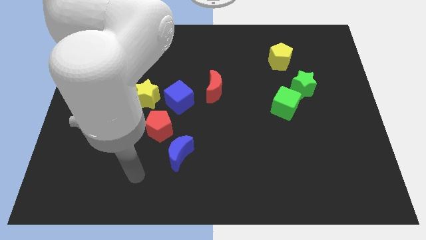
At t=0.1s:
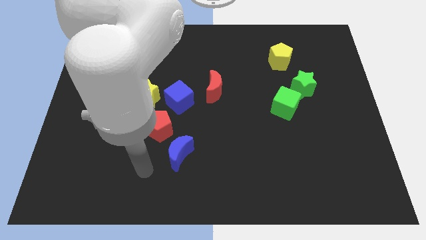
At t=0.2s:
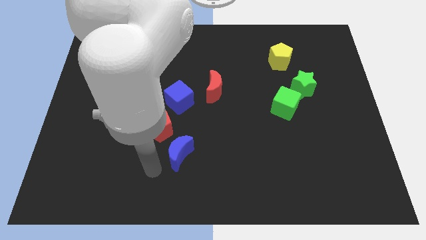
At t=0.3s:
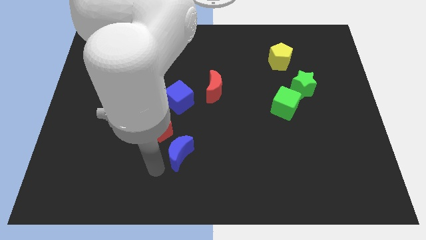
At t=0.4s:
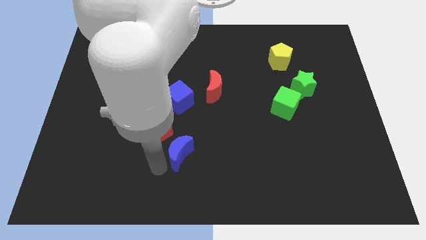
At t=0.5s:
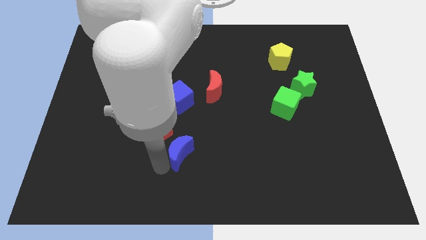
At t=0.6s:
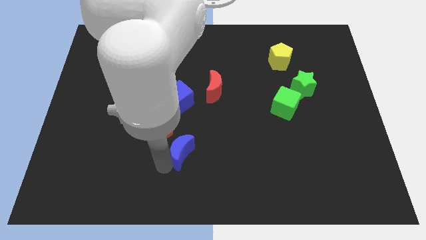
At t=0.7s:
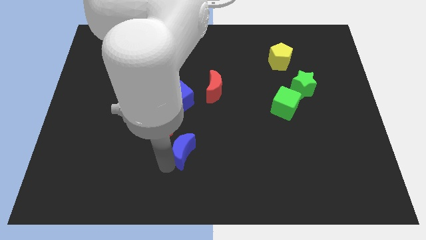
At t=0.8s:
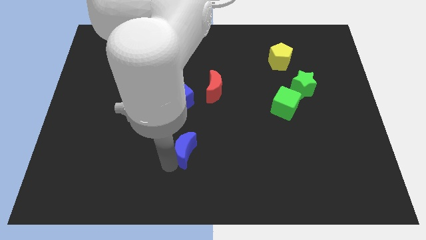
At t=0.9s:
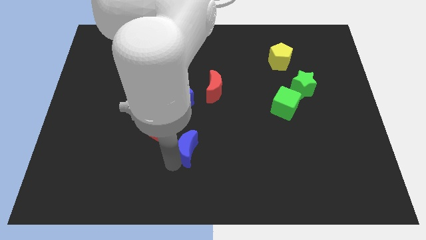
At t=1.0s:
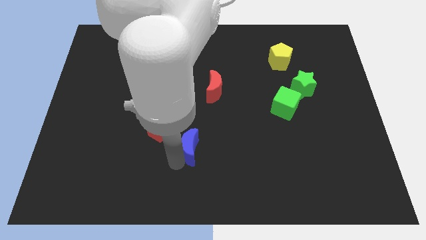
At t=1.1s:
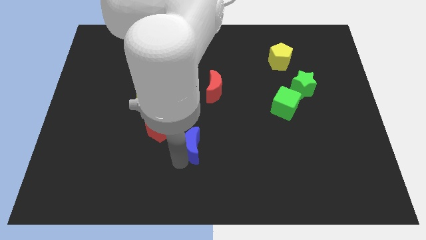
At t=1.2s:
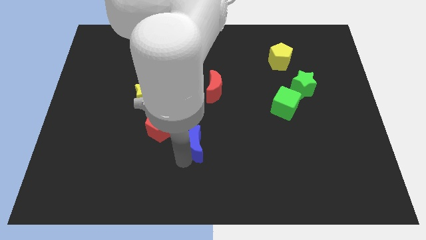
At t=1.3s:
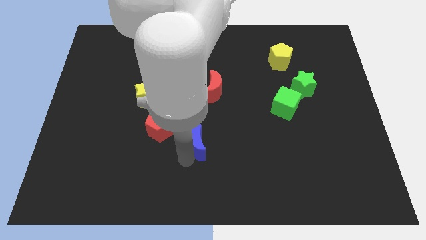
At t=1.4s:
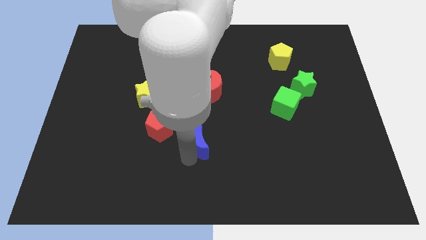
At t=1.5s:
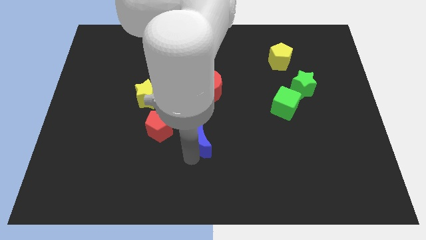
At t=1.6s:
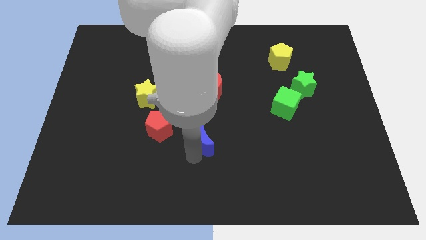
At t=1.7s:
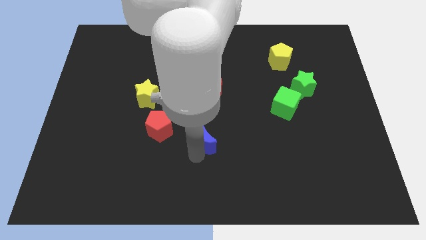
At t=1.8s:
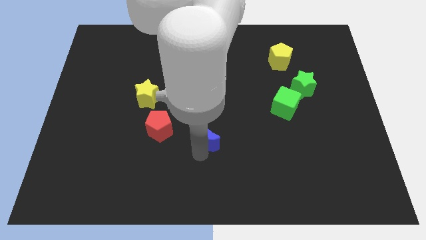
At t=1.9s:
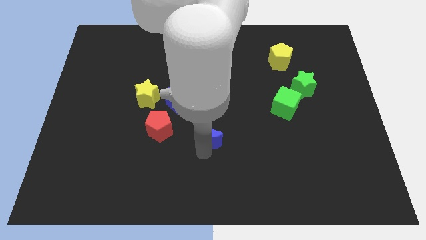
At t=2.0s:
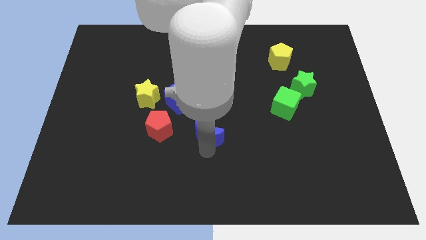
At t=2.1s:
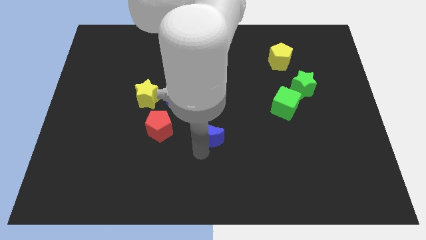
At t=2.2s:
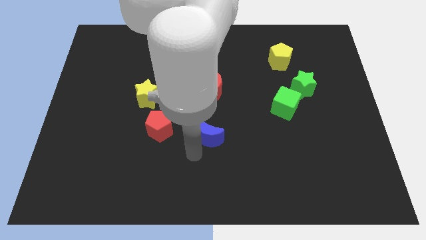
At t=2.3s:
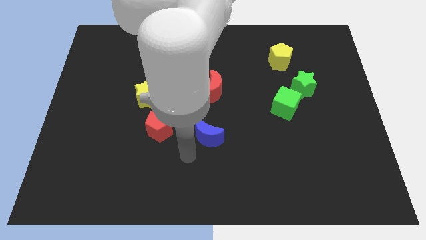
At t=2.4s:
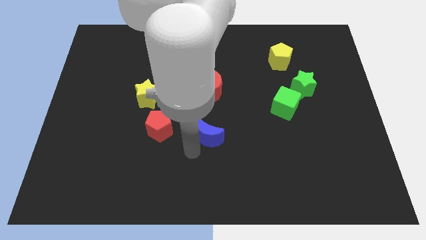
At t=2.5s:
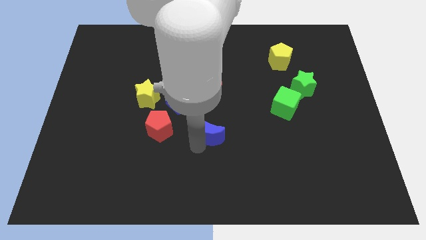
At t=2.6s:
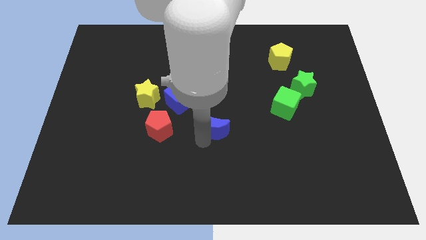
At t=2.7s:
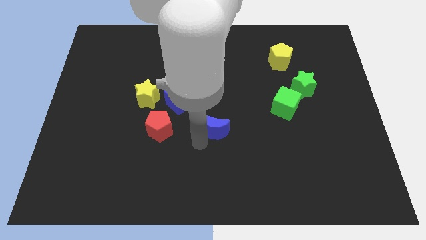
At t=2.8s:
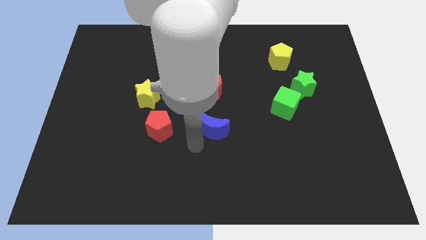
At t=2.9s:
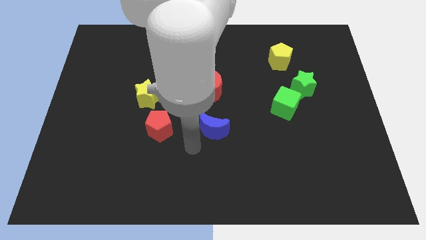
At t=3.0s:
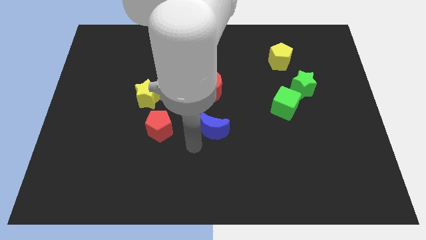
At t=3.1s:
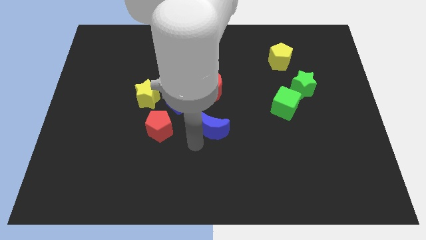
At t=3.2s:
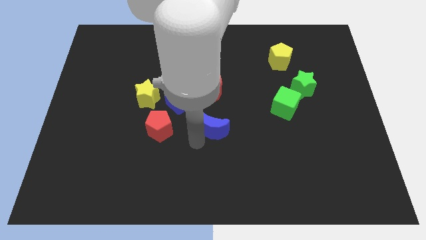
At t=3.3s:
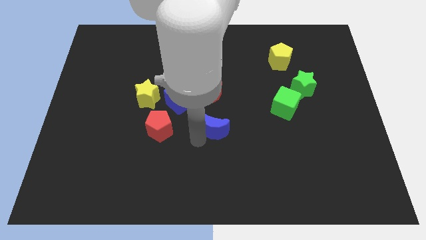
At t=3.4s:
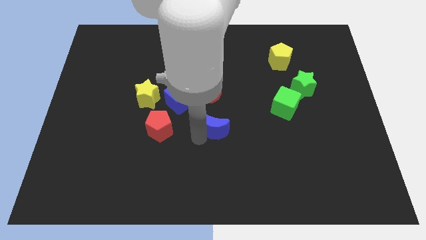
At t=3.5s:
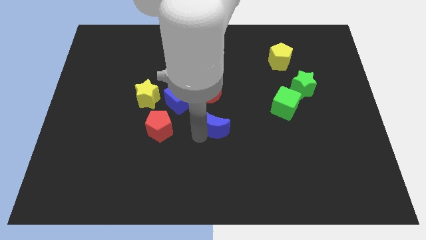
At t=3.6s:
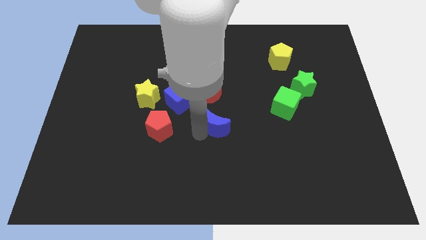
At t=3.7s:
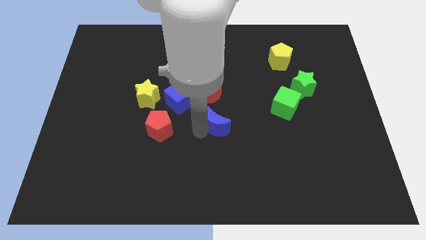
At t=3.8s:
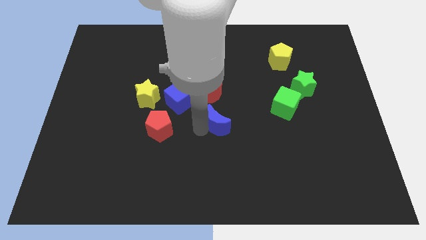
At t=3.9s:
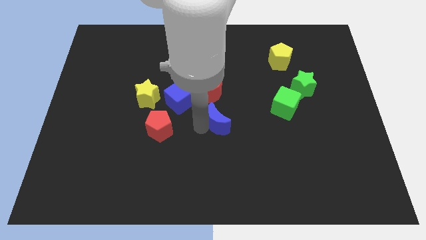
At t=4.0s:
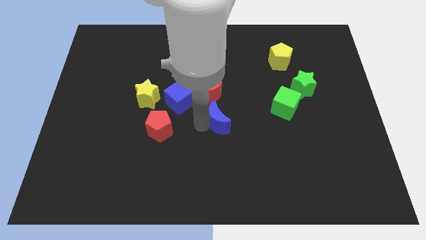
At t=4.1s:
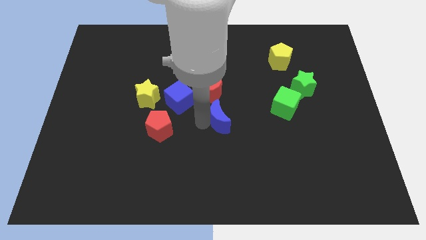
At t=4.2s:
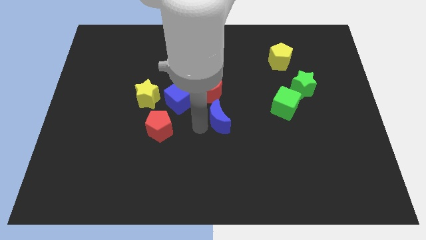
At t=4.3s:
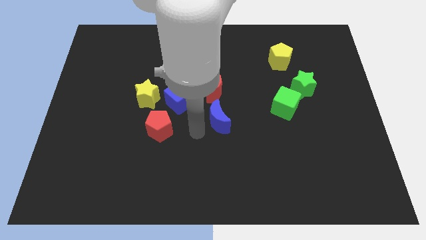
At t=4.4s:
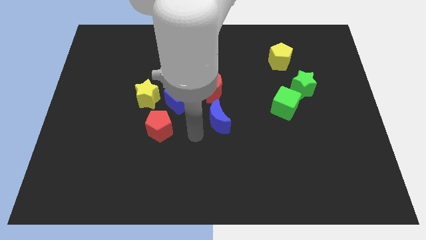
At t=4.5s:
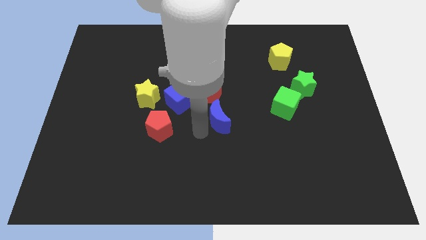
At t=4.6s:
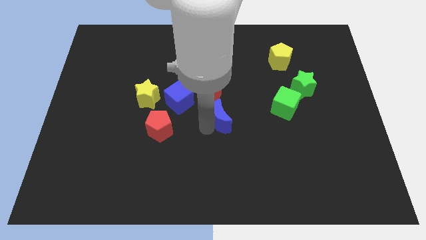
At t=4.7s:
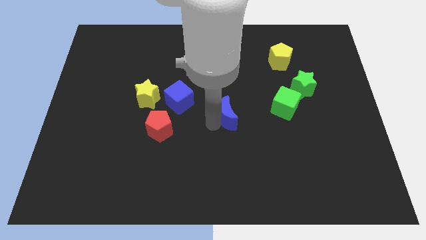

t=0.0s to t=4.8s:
slide the blue moon just left of the green cube

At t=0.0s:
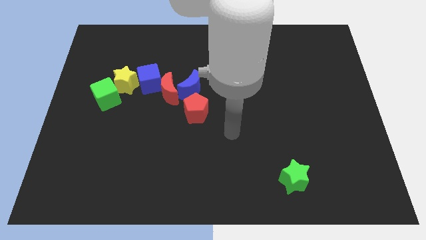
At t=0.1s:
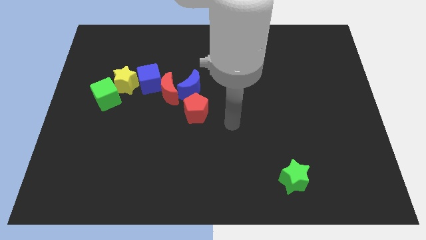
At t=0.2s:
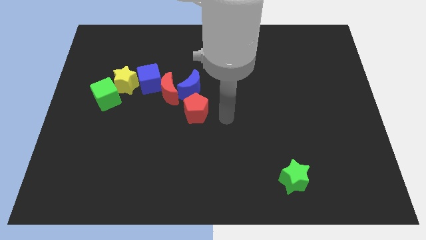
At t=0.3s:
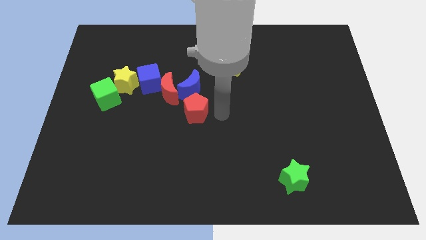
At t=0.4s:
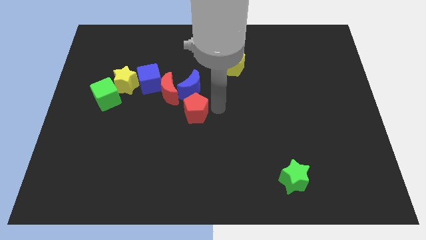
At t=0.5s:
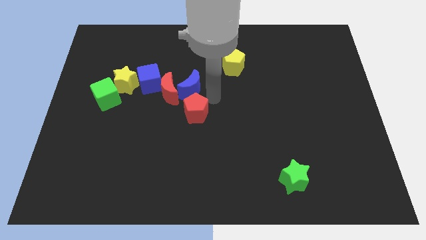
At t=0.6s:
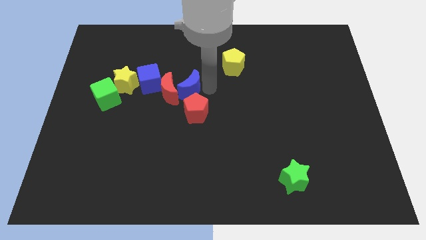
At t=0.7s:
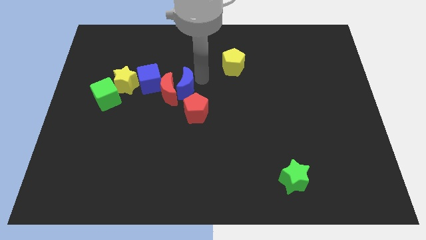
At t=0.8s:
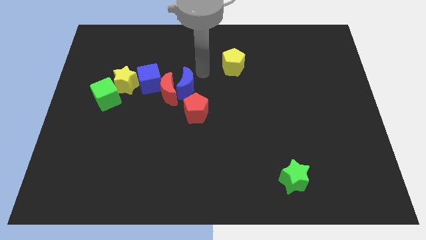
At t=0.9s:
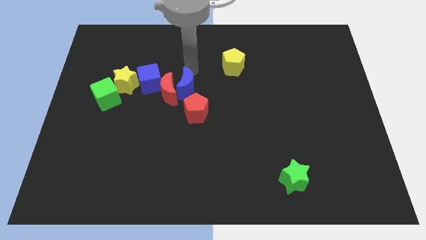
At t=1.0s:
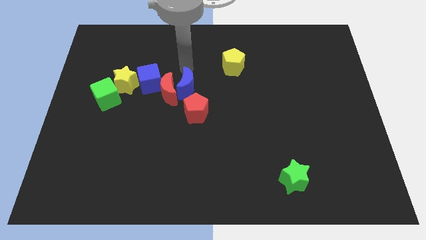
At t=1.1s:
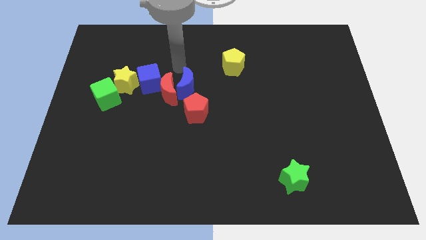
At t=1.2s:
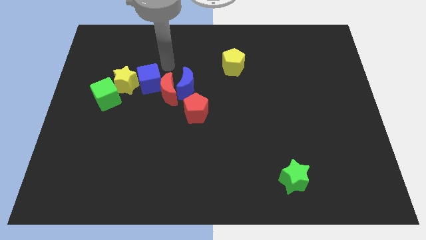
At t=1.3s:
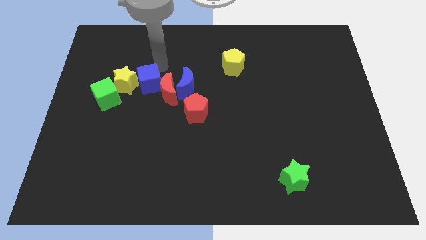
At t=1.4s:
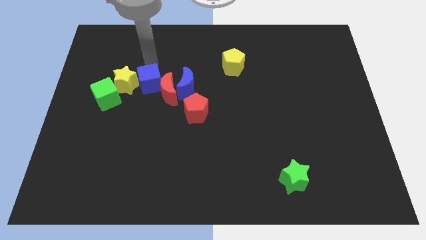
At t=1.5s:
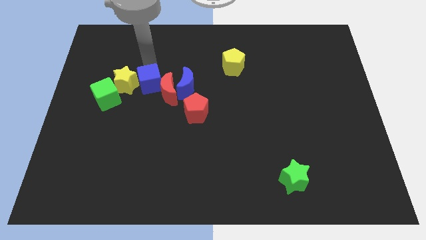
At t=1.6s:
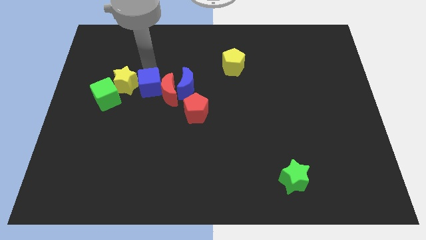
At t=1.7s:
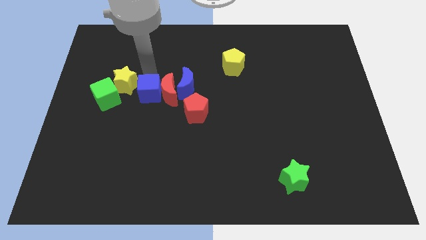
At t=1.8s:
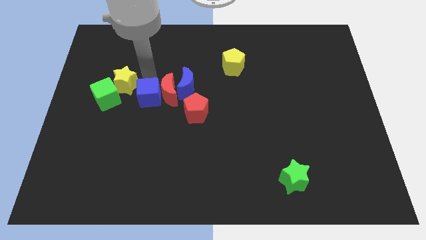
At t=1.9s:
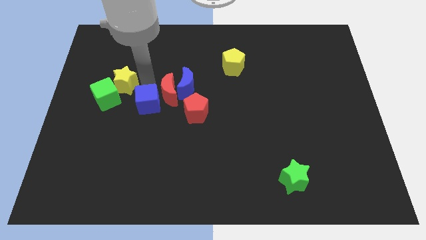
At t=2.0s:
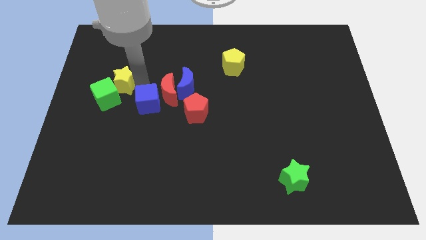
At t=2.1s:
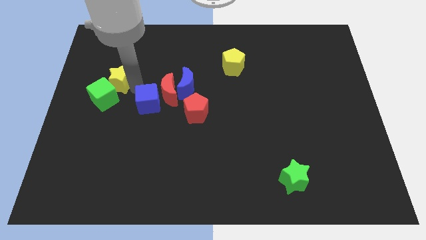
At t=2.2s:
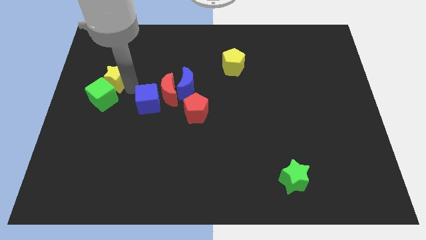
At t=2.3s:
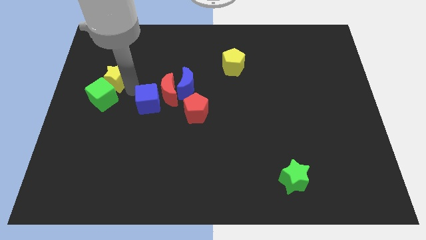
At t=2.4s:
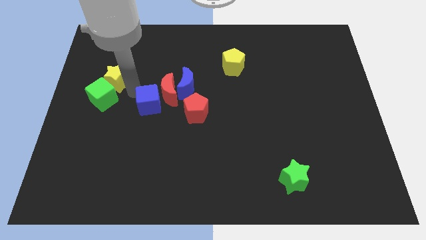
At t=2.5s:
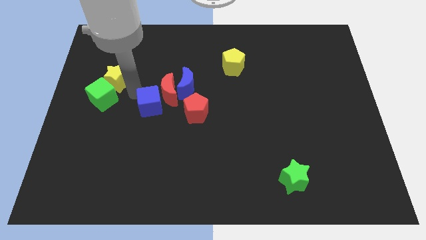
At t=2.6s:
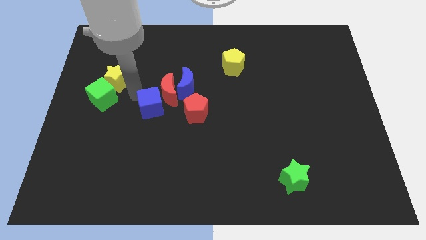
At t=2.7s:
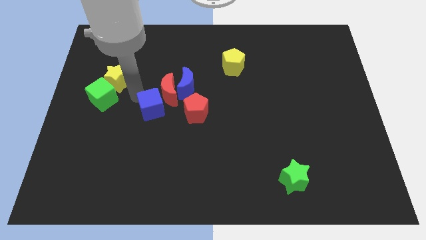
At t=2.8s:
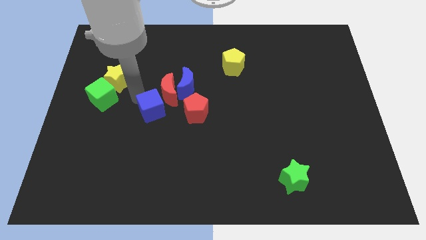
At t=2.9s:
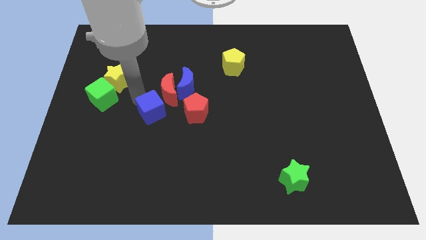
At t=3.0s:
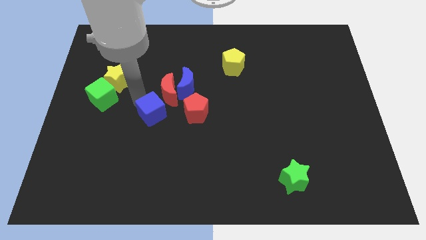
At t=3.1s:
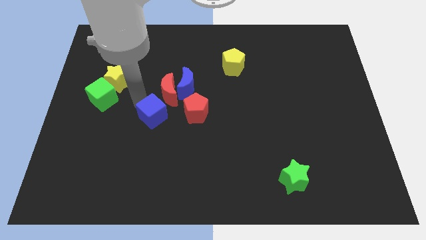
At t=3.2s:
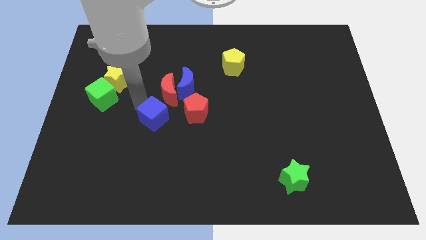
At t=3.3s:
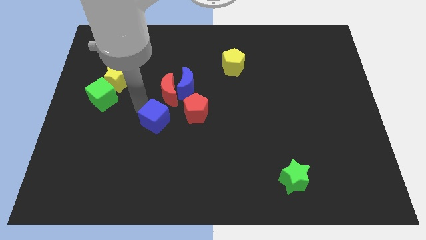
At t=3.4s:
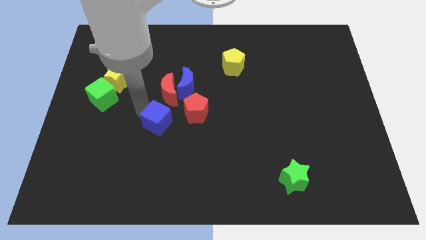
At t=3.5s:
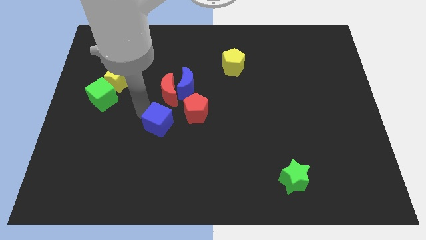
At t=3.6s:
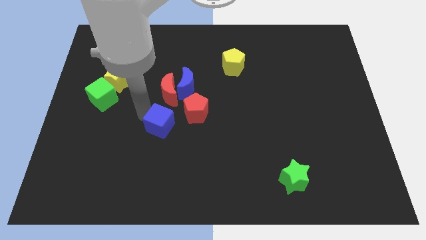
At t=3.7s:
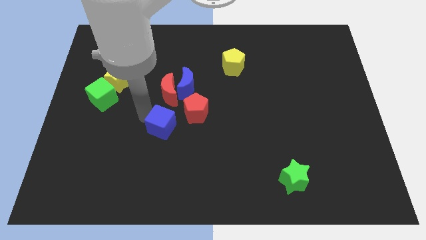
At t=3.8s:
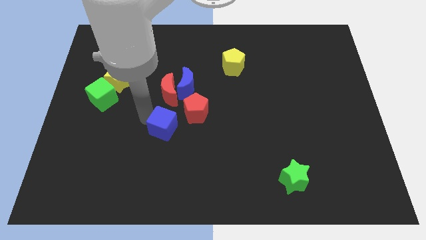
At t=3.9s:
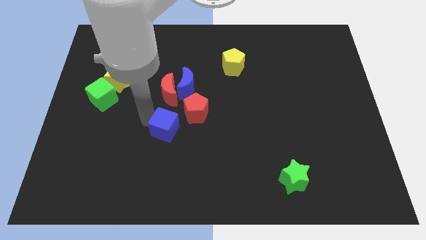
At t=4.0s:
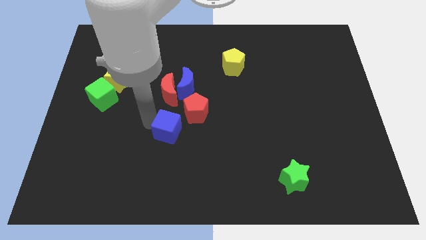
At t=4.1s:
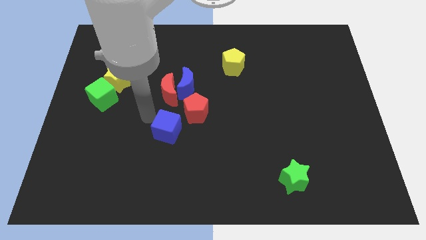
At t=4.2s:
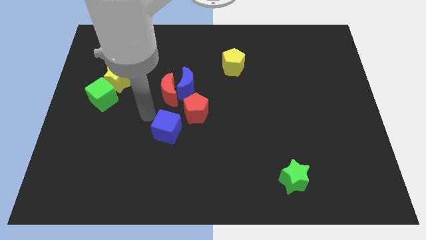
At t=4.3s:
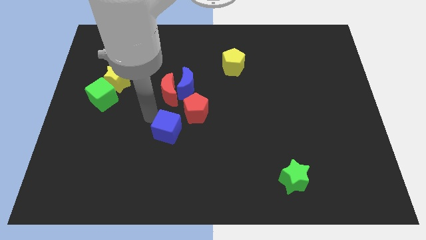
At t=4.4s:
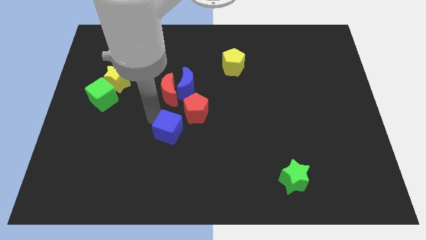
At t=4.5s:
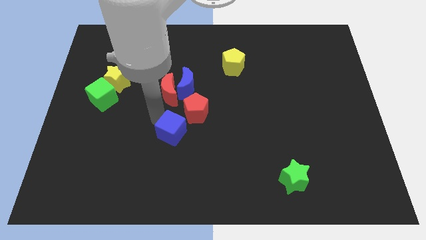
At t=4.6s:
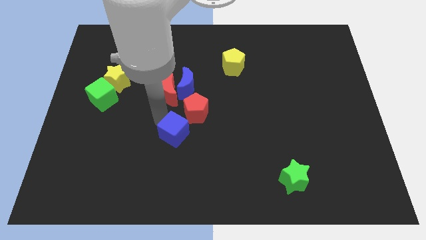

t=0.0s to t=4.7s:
move the blue cube to the bottom of the red pentagon
